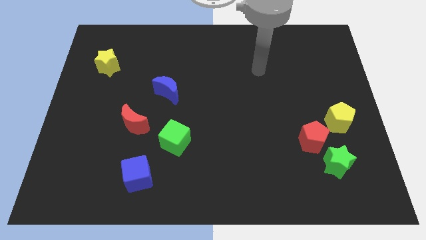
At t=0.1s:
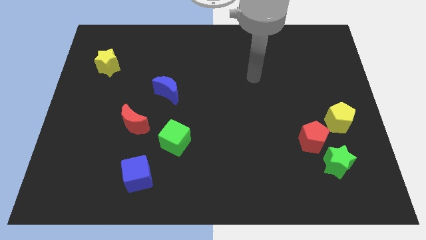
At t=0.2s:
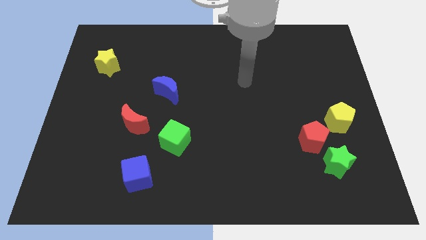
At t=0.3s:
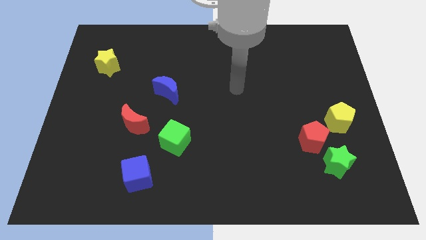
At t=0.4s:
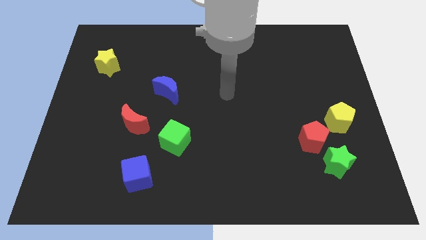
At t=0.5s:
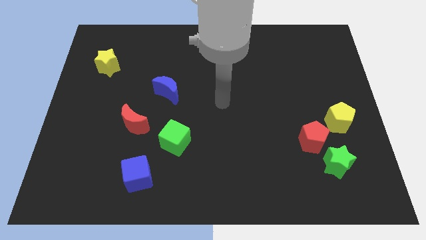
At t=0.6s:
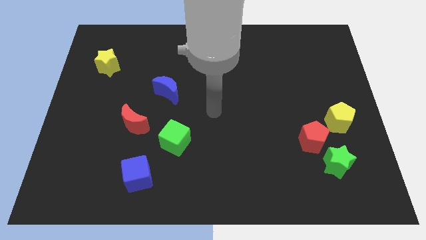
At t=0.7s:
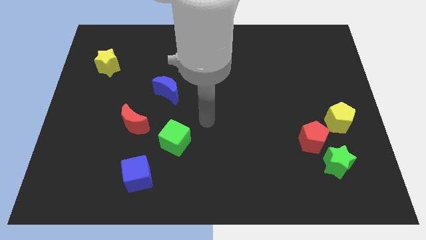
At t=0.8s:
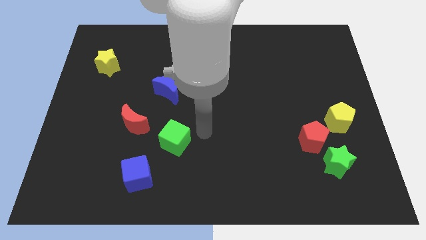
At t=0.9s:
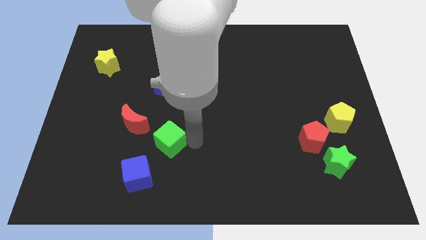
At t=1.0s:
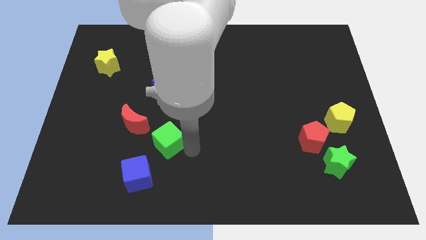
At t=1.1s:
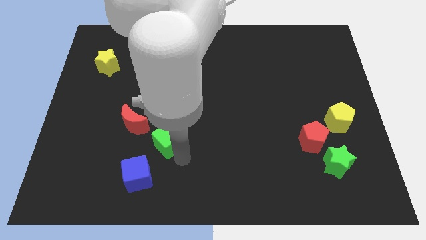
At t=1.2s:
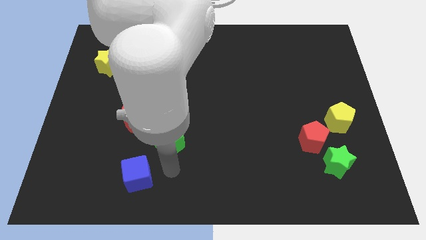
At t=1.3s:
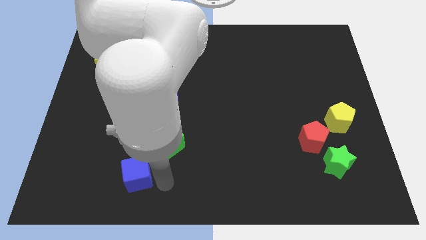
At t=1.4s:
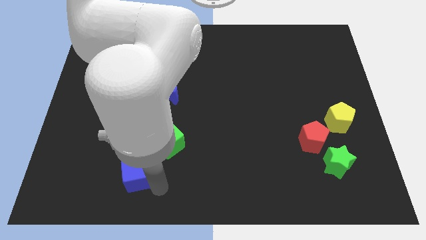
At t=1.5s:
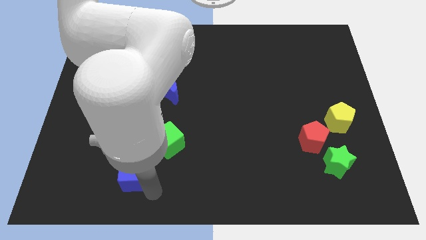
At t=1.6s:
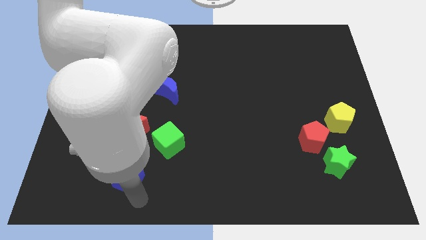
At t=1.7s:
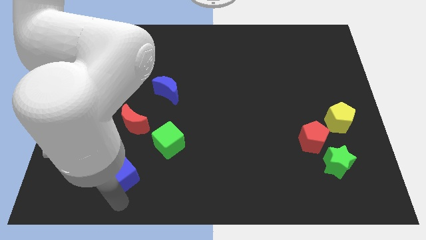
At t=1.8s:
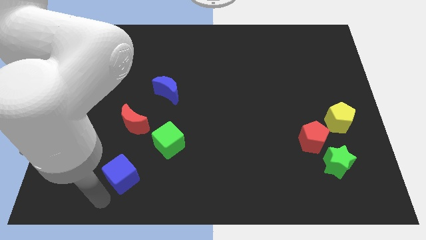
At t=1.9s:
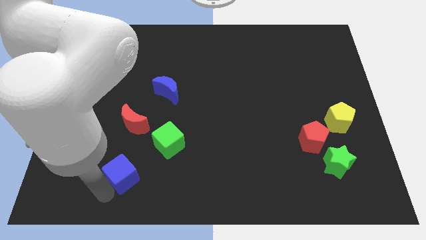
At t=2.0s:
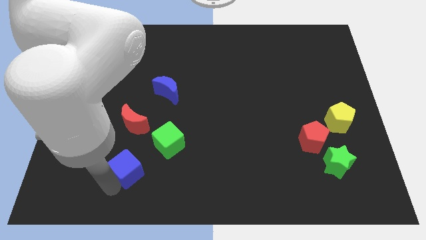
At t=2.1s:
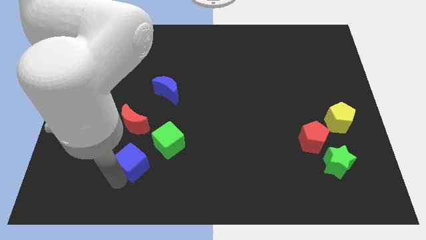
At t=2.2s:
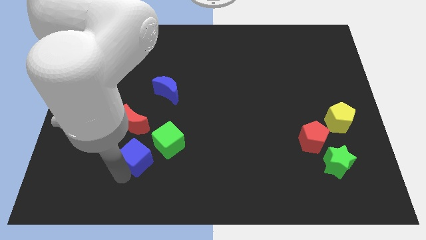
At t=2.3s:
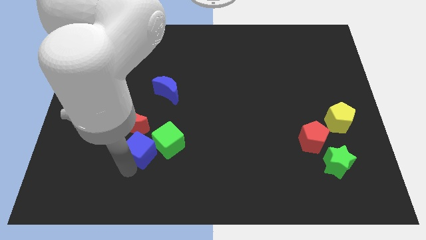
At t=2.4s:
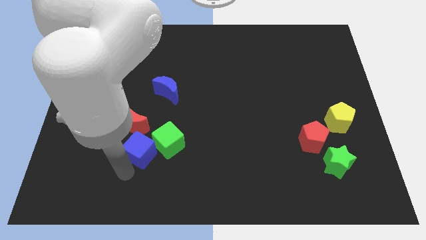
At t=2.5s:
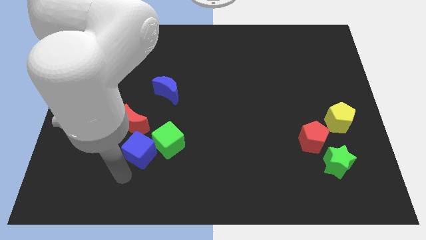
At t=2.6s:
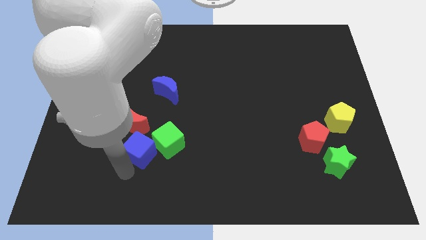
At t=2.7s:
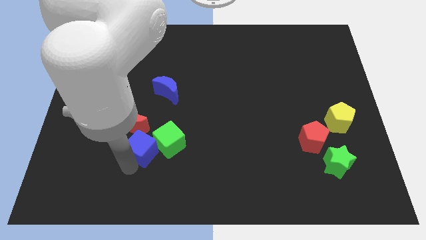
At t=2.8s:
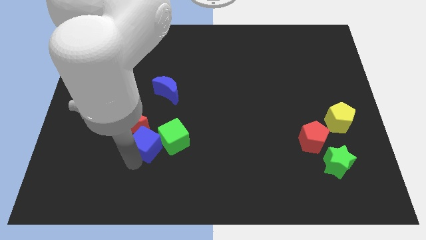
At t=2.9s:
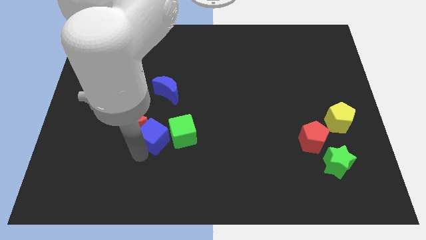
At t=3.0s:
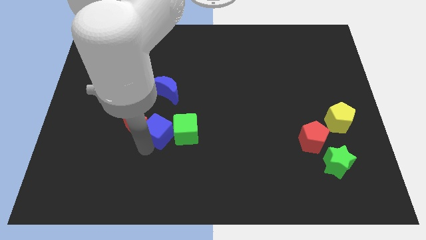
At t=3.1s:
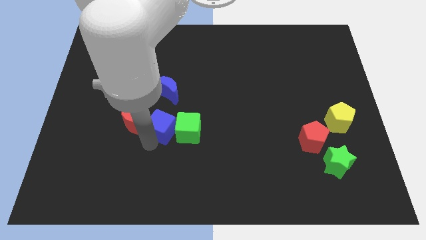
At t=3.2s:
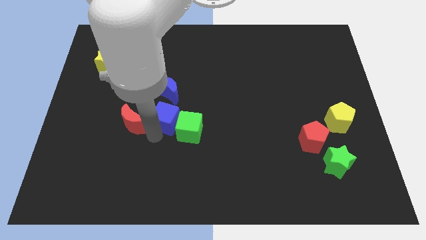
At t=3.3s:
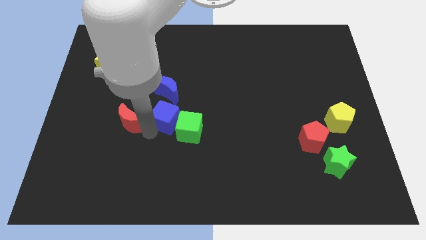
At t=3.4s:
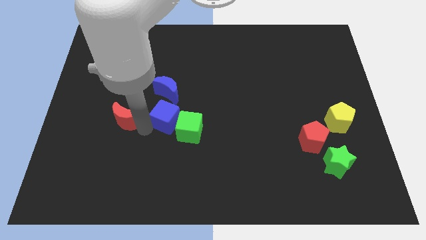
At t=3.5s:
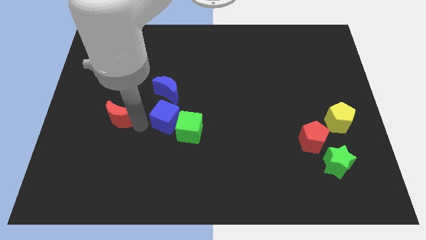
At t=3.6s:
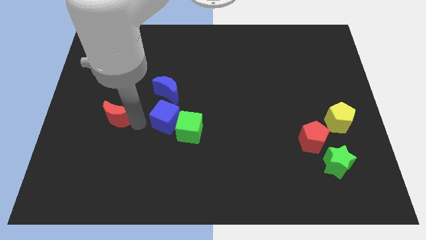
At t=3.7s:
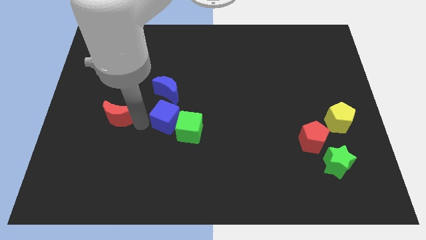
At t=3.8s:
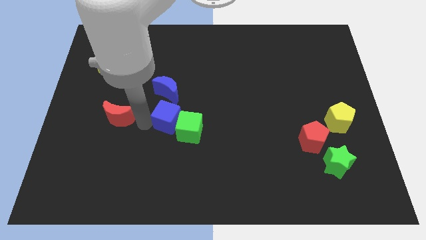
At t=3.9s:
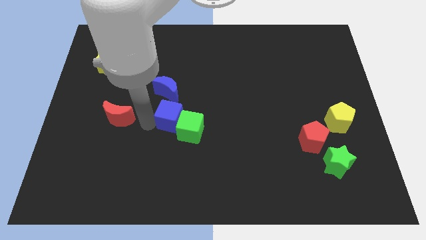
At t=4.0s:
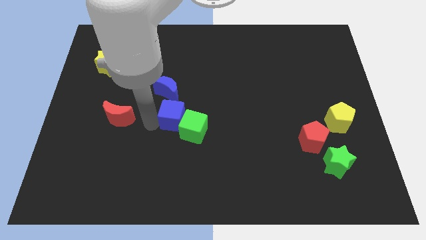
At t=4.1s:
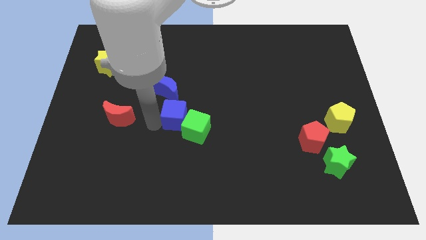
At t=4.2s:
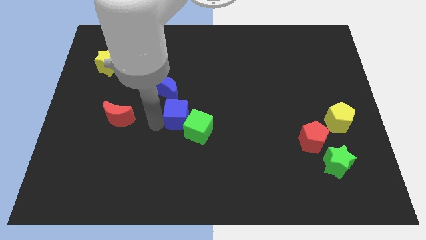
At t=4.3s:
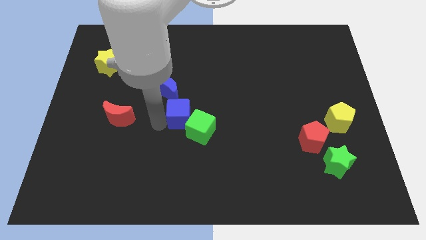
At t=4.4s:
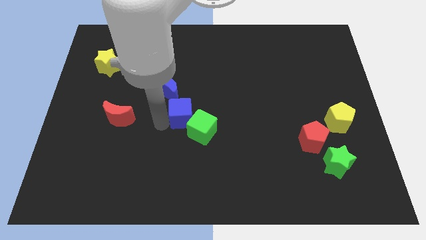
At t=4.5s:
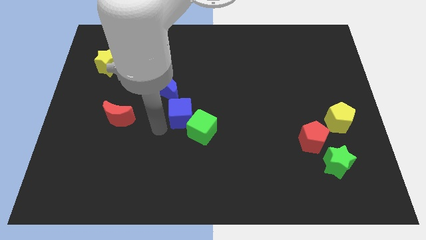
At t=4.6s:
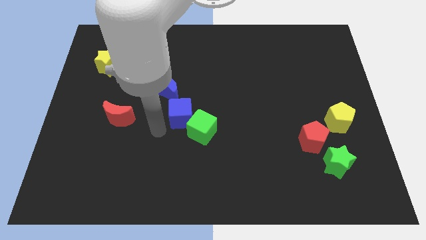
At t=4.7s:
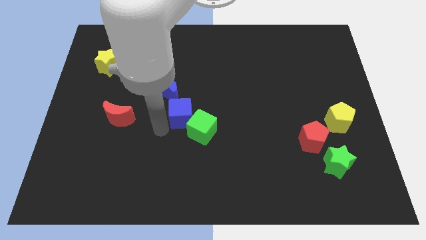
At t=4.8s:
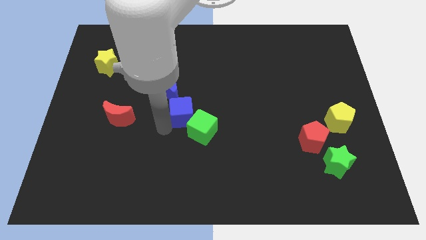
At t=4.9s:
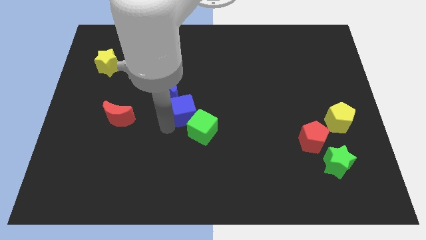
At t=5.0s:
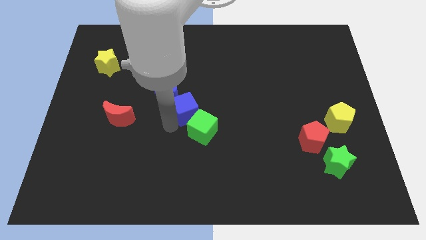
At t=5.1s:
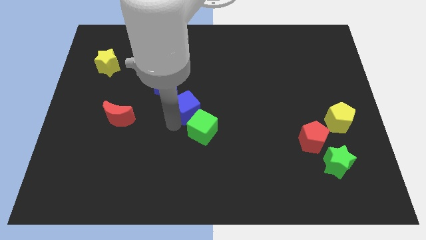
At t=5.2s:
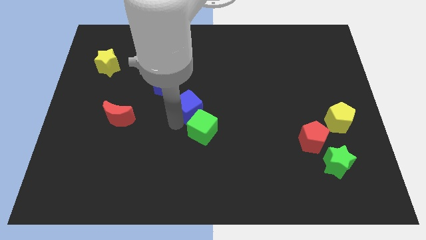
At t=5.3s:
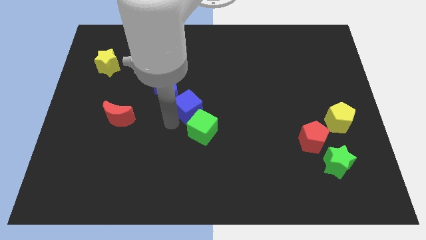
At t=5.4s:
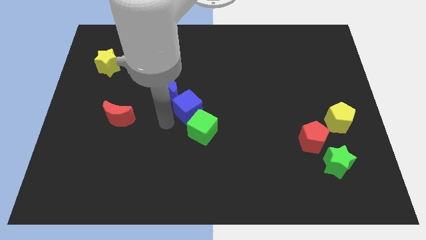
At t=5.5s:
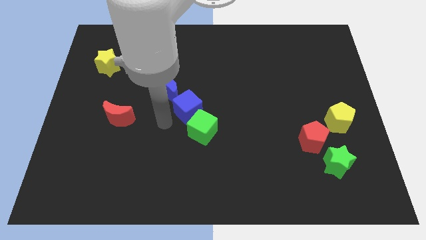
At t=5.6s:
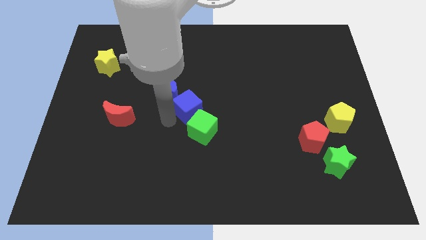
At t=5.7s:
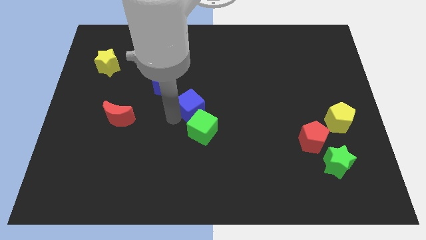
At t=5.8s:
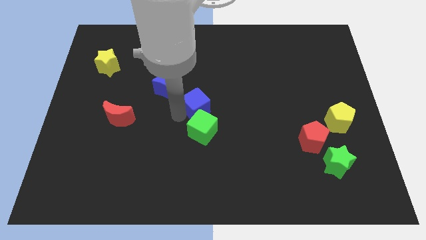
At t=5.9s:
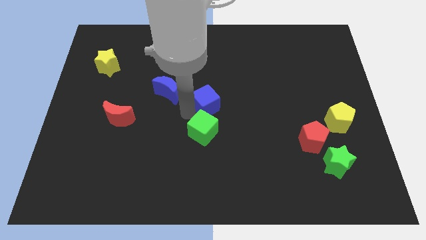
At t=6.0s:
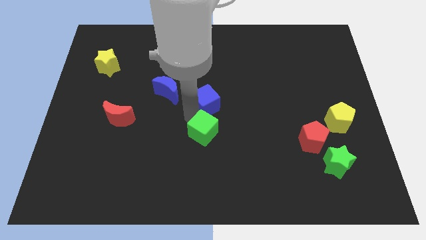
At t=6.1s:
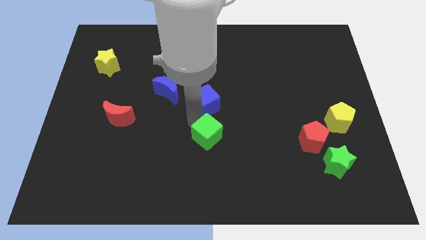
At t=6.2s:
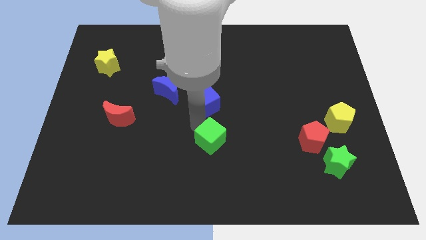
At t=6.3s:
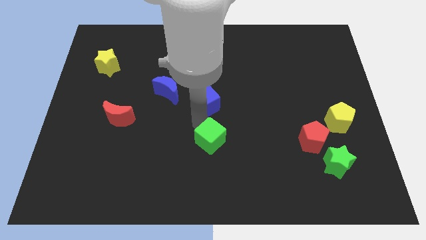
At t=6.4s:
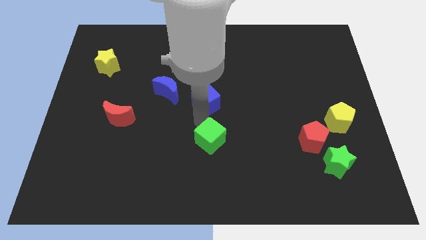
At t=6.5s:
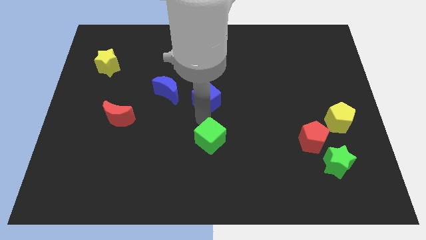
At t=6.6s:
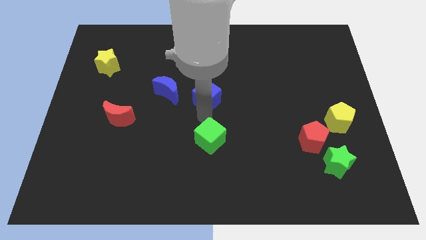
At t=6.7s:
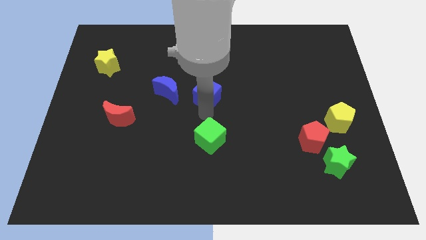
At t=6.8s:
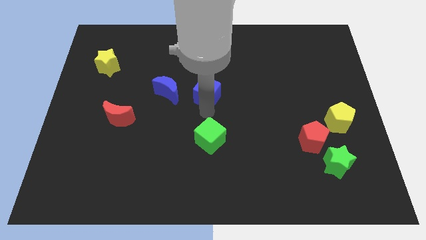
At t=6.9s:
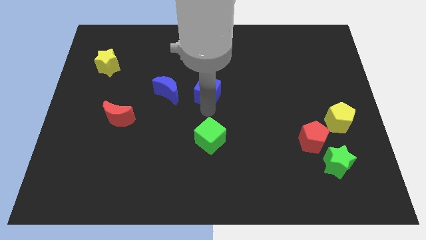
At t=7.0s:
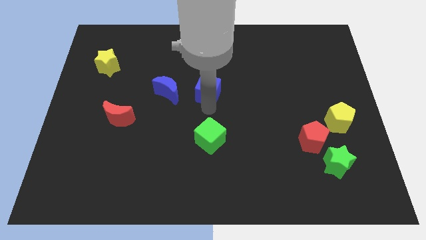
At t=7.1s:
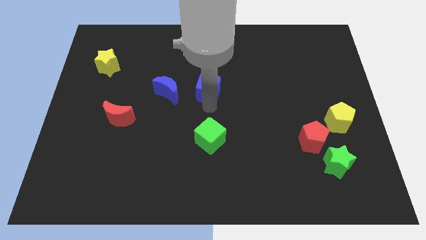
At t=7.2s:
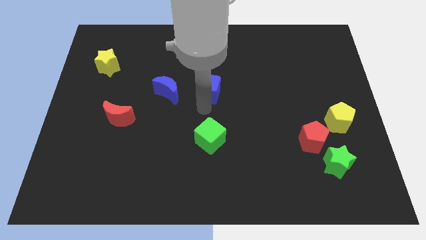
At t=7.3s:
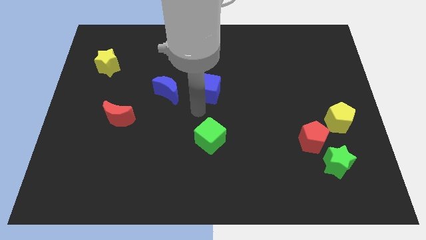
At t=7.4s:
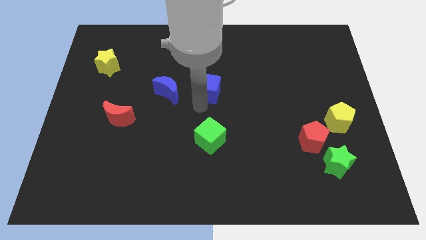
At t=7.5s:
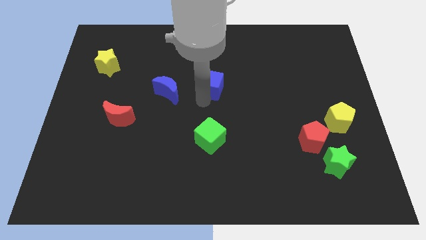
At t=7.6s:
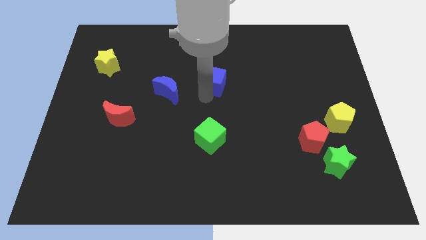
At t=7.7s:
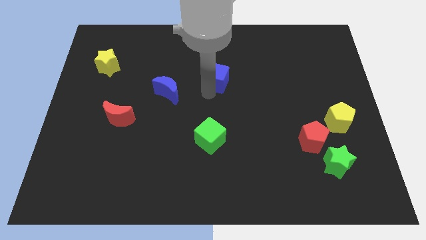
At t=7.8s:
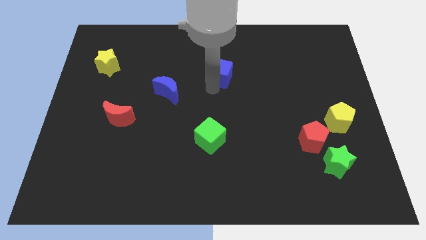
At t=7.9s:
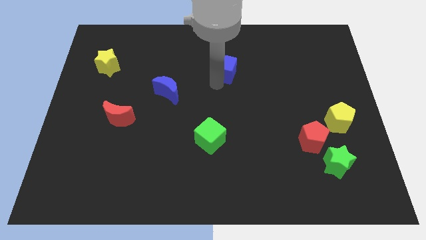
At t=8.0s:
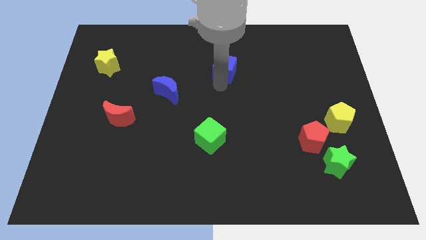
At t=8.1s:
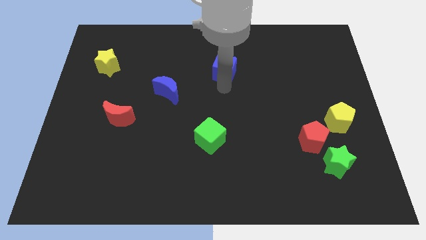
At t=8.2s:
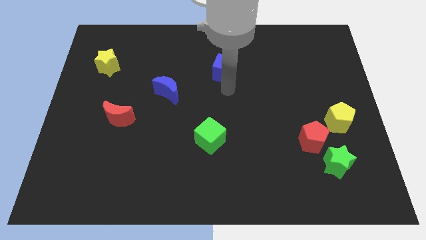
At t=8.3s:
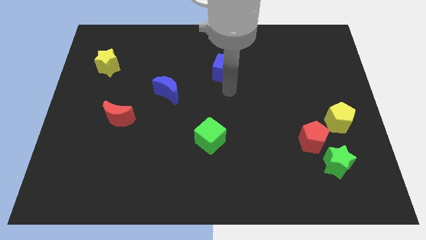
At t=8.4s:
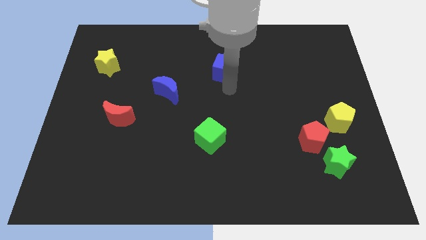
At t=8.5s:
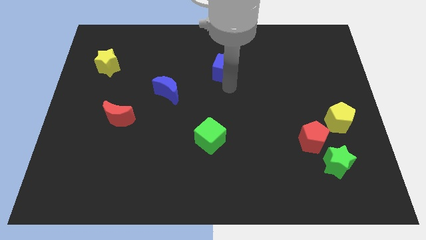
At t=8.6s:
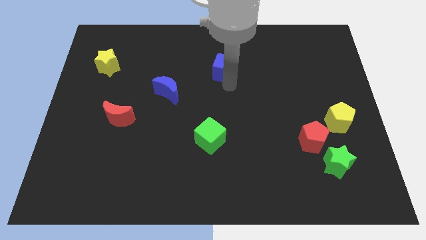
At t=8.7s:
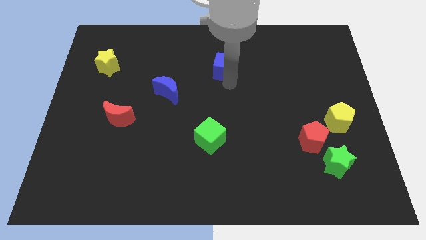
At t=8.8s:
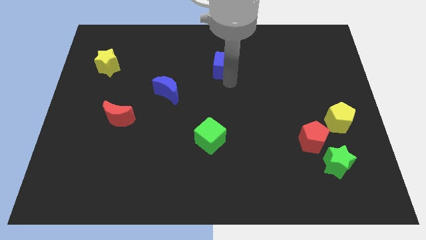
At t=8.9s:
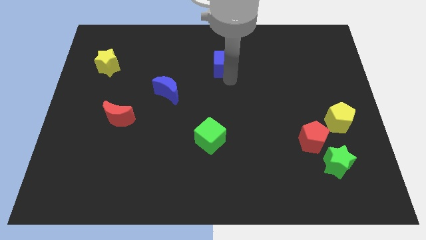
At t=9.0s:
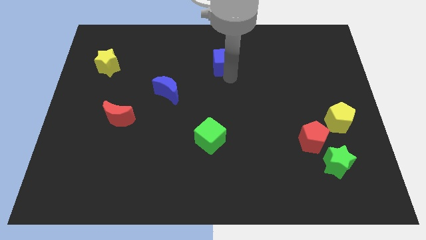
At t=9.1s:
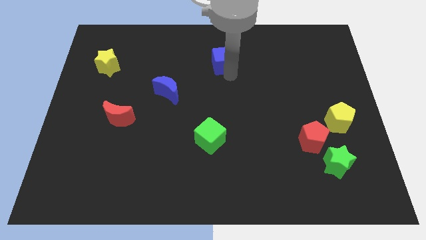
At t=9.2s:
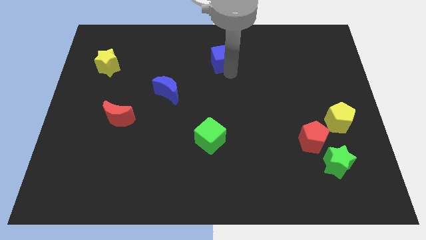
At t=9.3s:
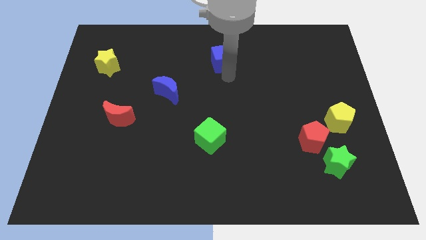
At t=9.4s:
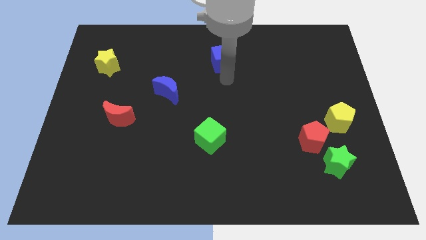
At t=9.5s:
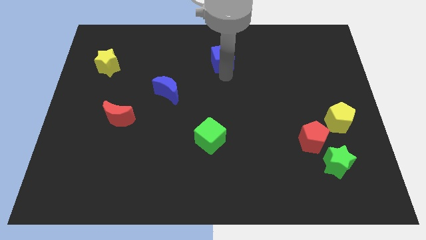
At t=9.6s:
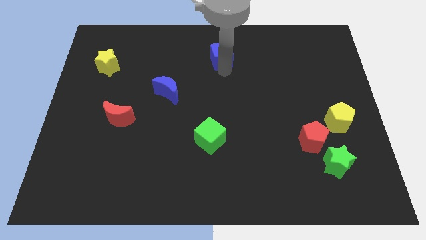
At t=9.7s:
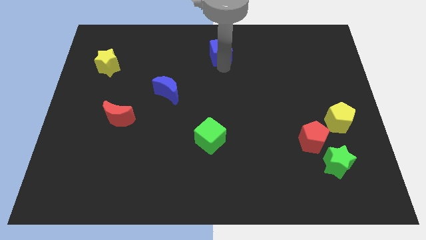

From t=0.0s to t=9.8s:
slide the blue cube to the towards your base
